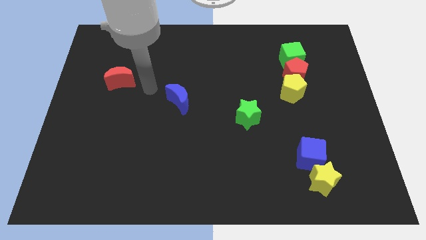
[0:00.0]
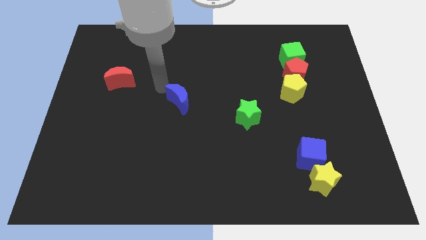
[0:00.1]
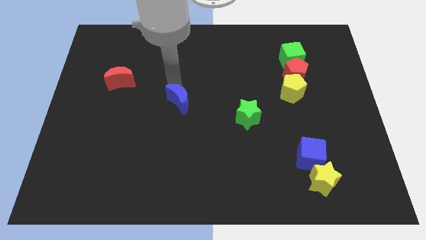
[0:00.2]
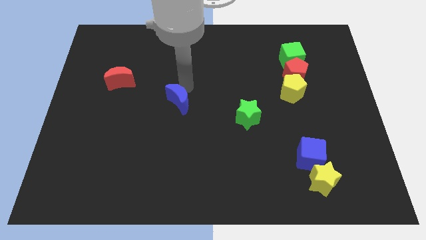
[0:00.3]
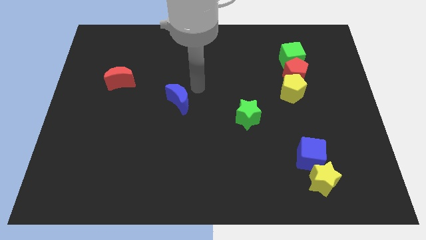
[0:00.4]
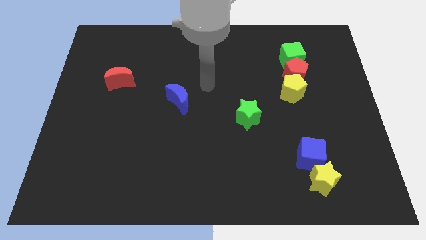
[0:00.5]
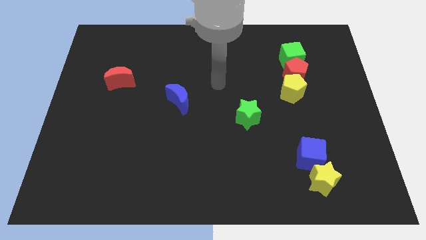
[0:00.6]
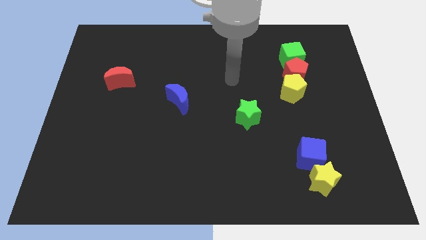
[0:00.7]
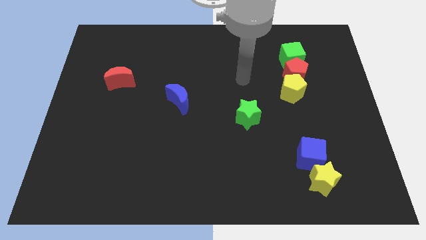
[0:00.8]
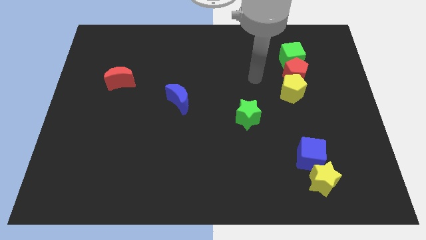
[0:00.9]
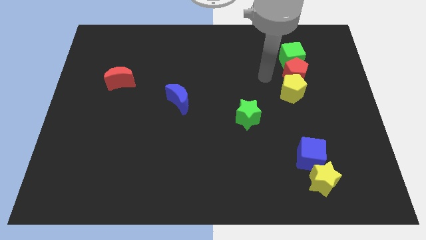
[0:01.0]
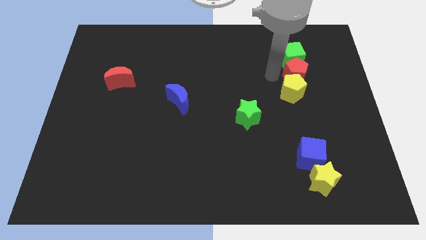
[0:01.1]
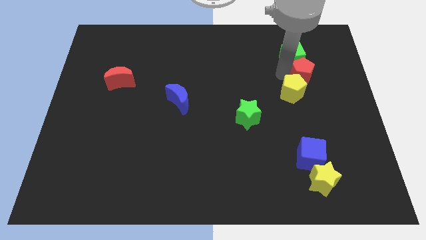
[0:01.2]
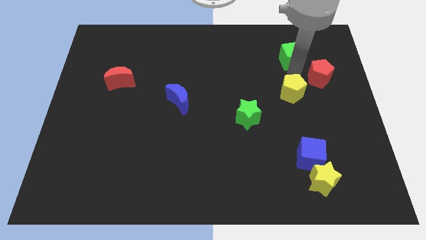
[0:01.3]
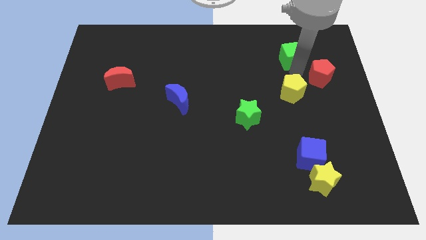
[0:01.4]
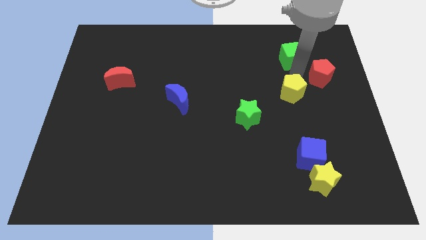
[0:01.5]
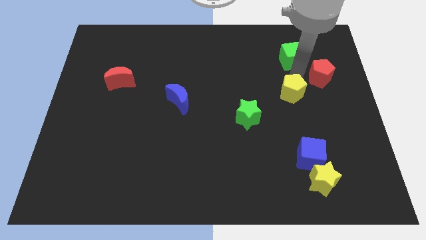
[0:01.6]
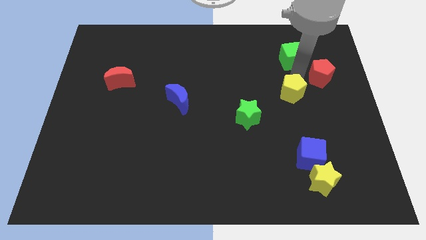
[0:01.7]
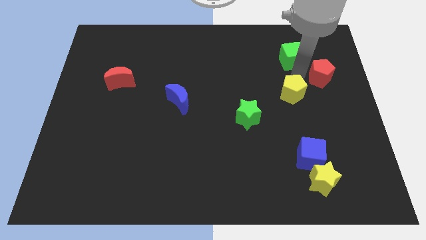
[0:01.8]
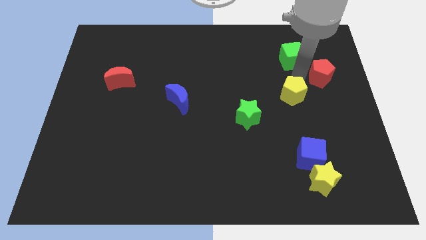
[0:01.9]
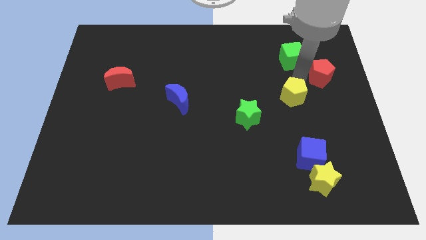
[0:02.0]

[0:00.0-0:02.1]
separate the yellow pentagon from the red pentagon

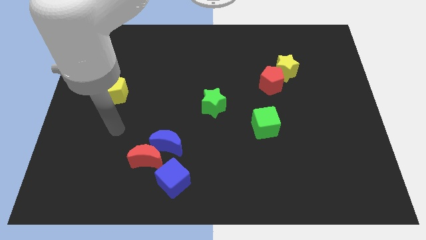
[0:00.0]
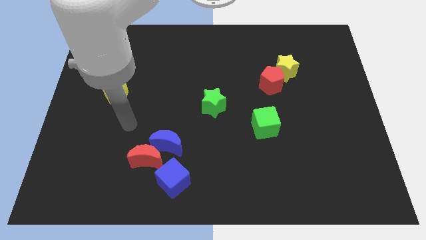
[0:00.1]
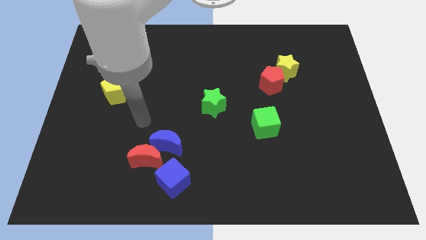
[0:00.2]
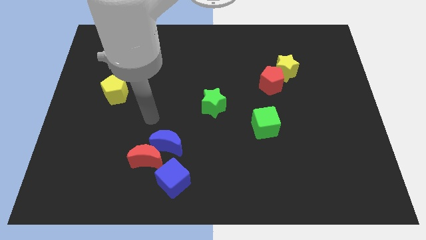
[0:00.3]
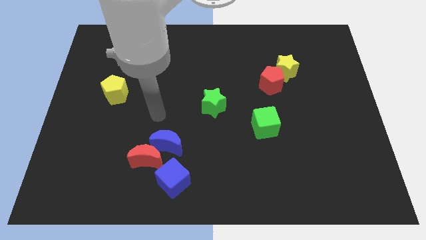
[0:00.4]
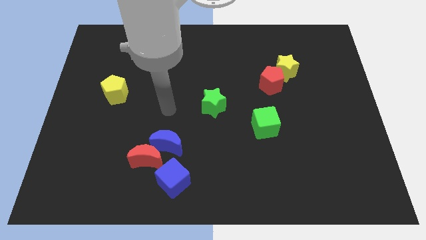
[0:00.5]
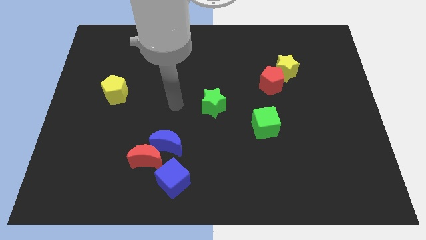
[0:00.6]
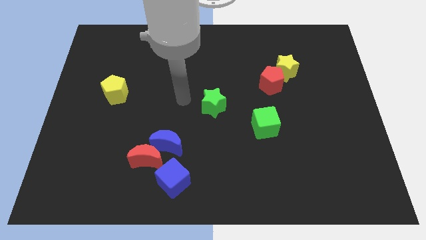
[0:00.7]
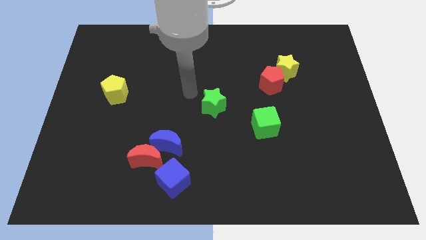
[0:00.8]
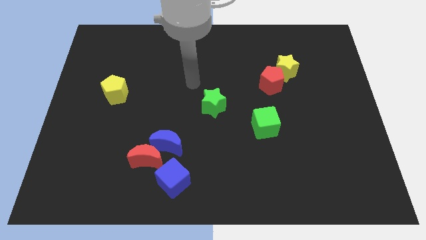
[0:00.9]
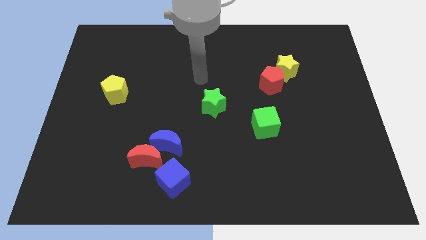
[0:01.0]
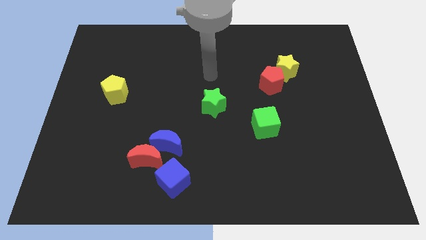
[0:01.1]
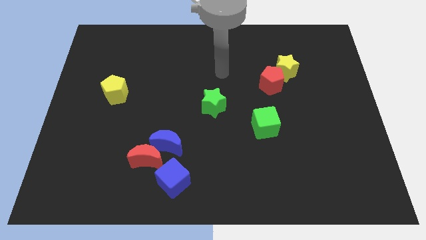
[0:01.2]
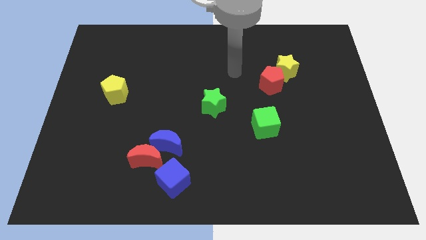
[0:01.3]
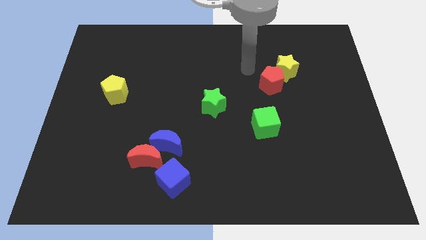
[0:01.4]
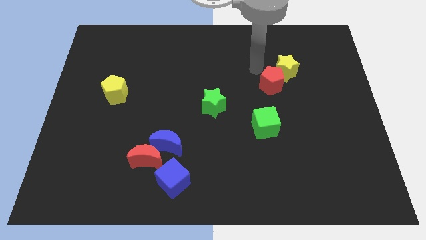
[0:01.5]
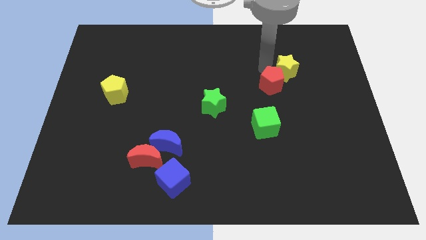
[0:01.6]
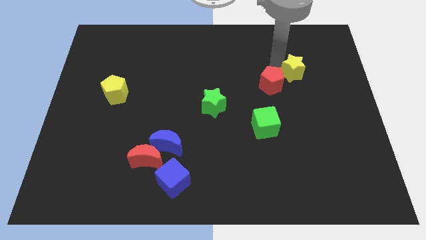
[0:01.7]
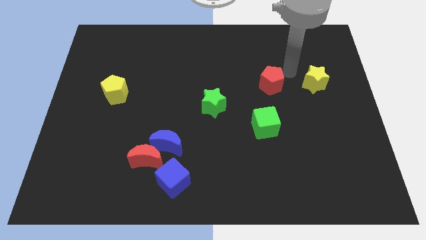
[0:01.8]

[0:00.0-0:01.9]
separate the red pentagon from the yellow star

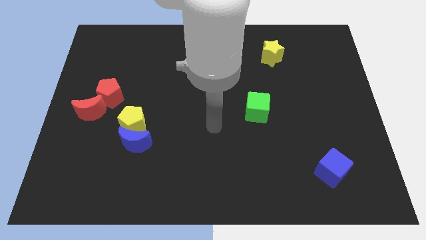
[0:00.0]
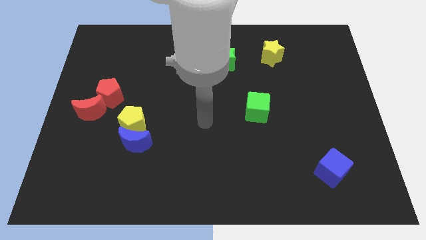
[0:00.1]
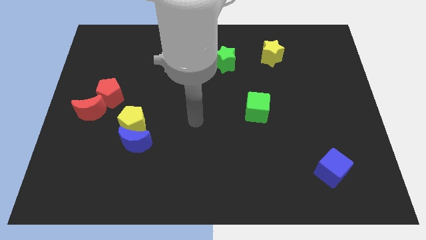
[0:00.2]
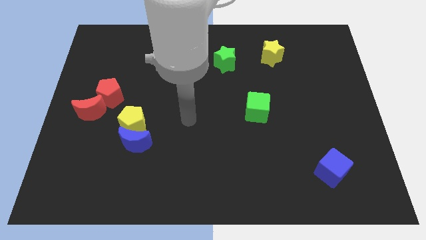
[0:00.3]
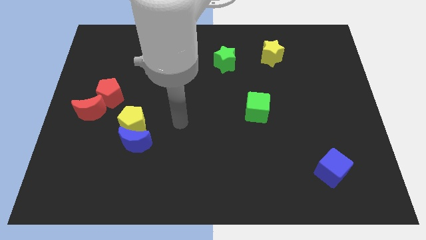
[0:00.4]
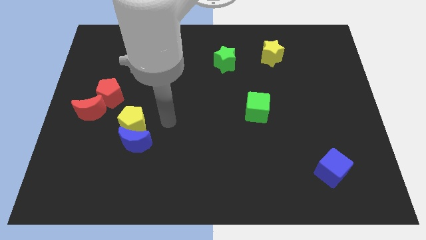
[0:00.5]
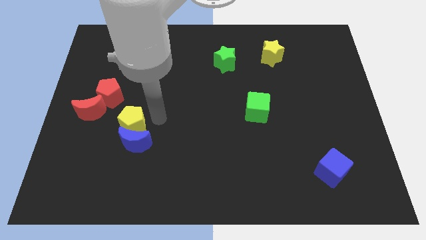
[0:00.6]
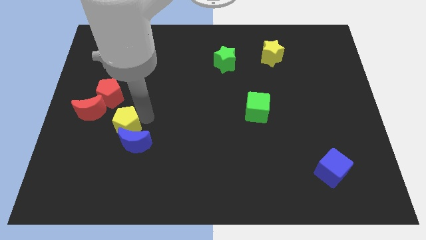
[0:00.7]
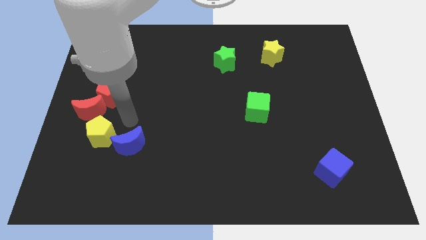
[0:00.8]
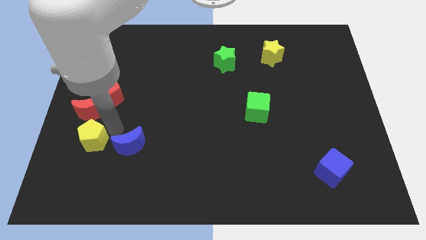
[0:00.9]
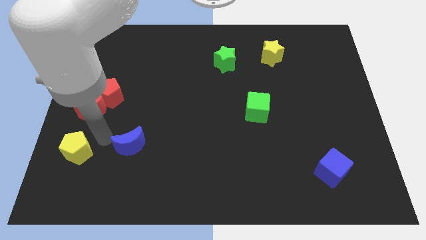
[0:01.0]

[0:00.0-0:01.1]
move the blue moon away from the yellow pentagon

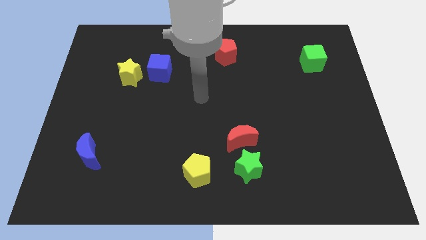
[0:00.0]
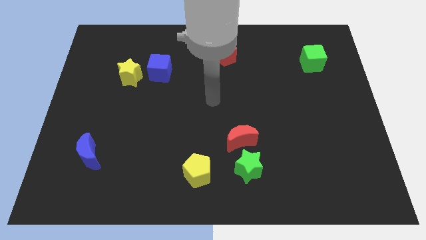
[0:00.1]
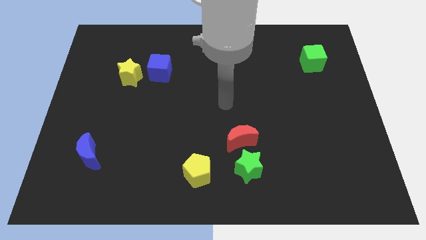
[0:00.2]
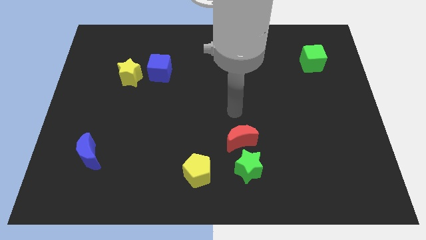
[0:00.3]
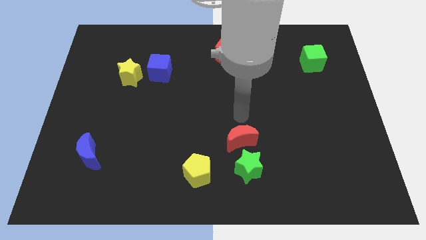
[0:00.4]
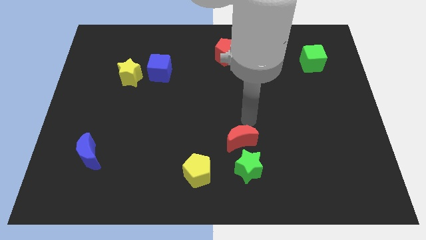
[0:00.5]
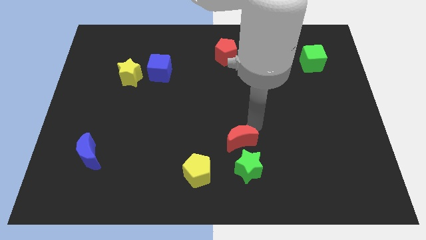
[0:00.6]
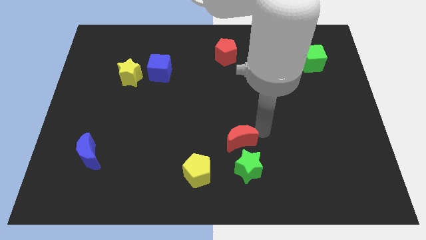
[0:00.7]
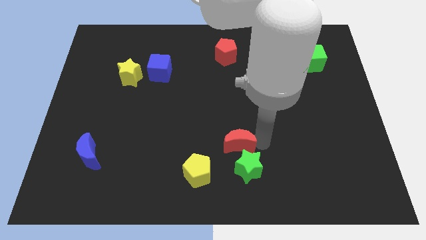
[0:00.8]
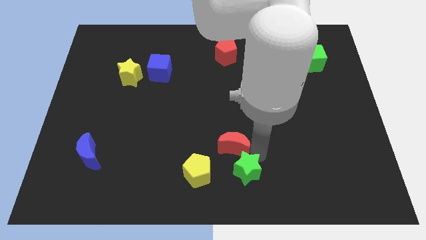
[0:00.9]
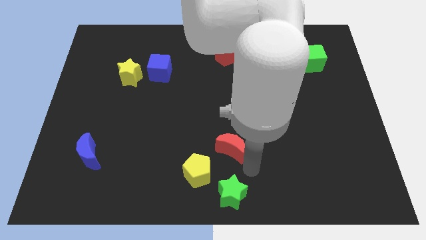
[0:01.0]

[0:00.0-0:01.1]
pull the red moon apart from the green star

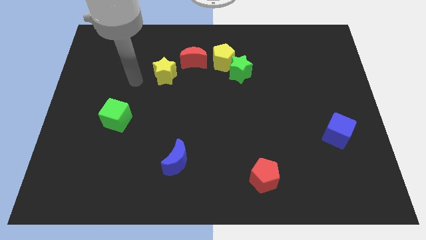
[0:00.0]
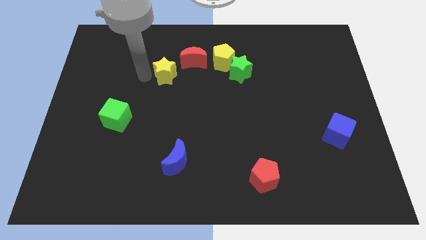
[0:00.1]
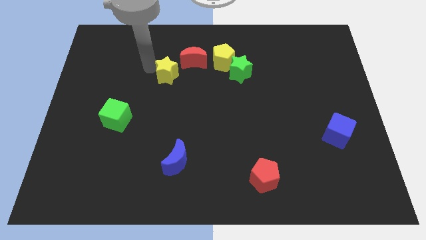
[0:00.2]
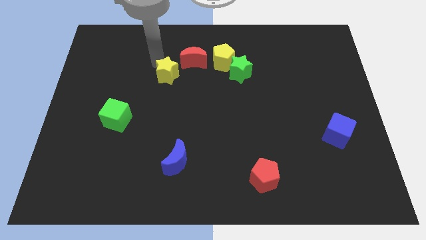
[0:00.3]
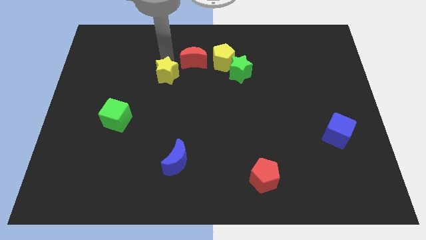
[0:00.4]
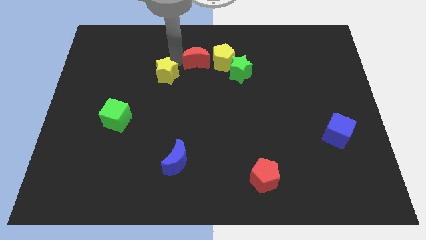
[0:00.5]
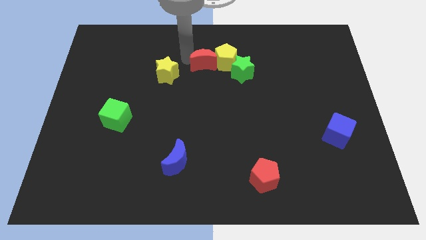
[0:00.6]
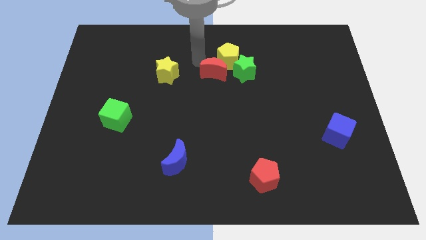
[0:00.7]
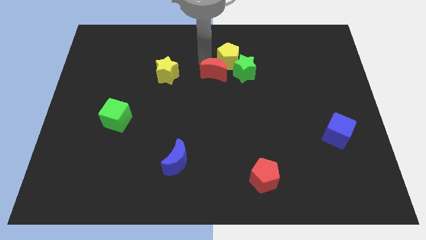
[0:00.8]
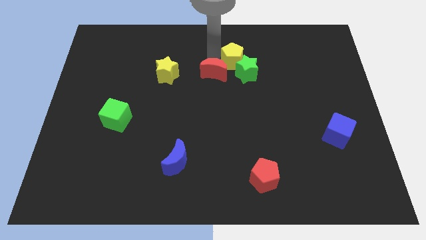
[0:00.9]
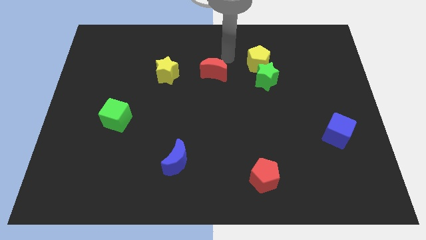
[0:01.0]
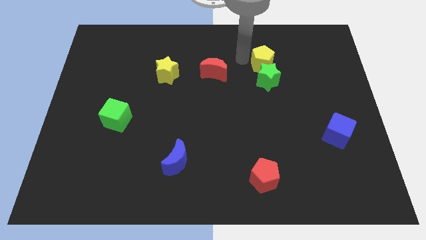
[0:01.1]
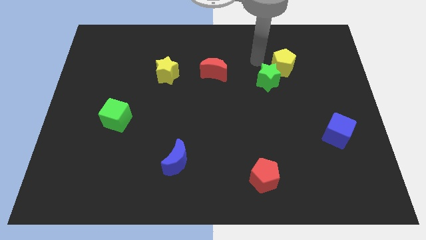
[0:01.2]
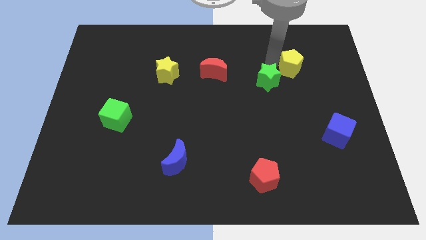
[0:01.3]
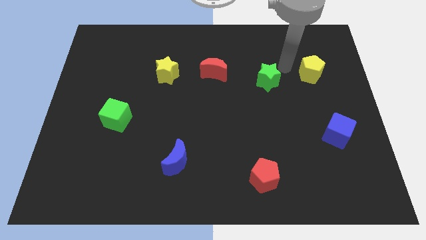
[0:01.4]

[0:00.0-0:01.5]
move the green star away from the yellow pentagon

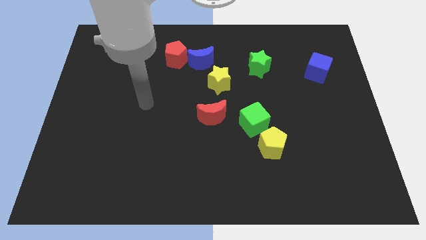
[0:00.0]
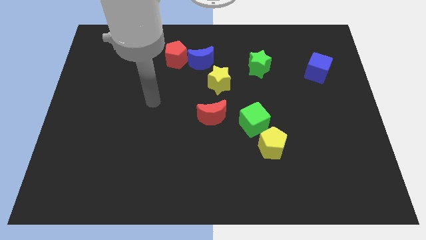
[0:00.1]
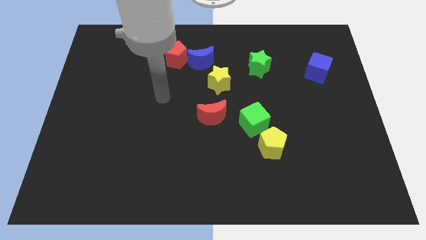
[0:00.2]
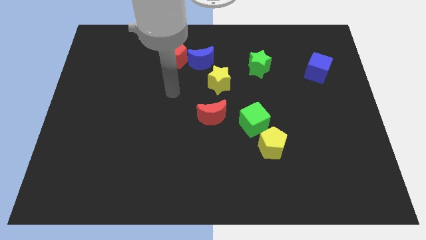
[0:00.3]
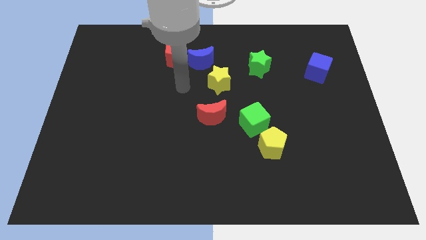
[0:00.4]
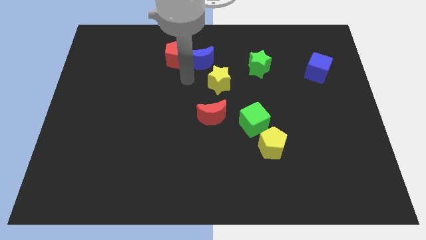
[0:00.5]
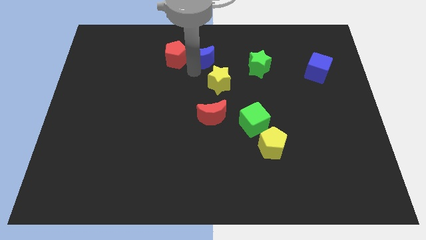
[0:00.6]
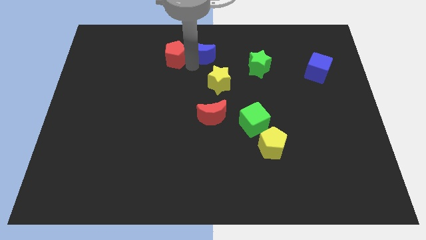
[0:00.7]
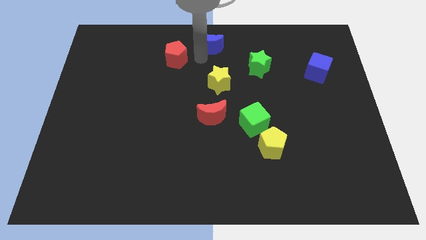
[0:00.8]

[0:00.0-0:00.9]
move the red pentagon away from the blue moon

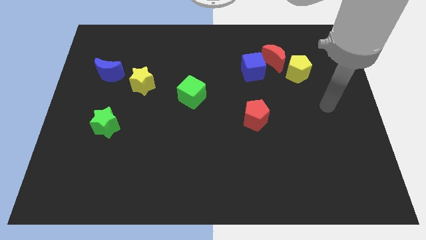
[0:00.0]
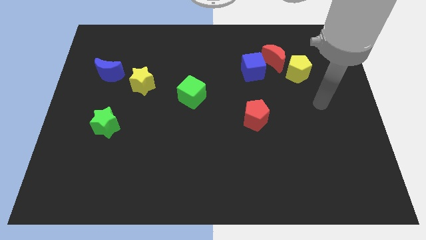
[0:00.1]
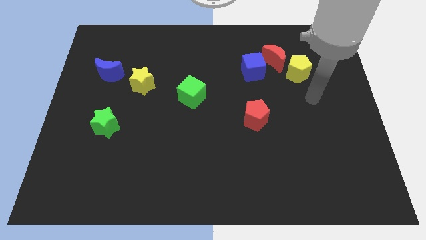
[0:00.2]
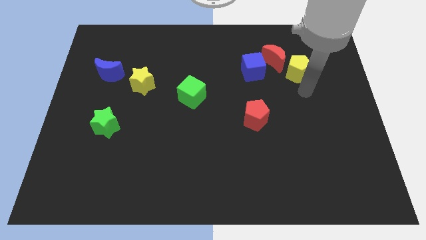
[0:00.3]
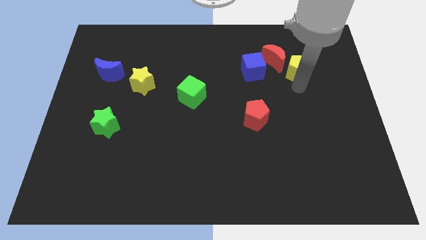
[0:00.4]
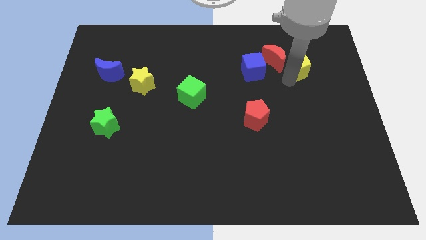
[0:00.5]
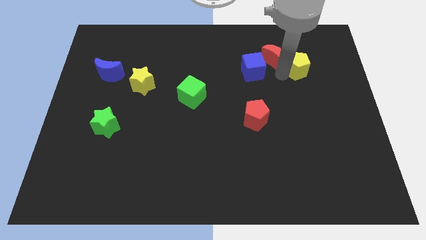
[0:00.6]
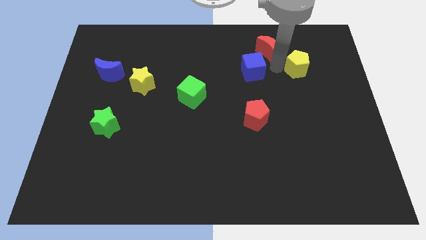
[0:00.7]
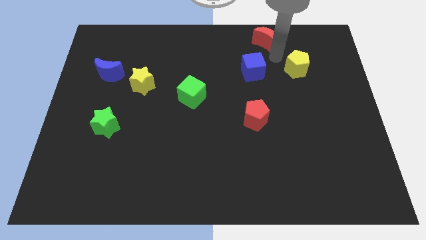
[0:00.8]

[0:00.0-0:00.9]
separate the yellow pentagon from the red moon

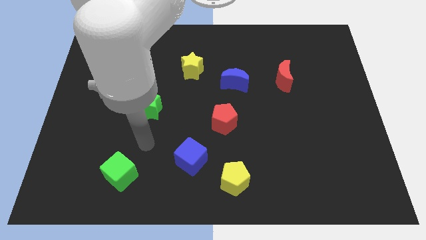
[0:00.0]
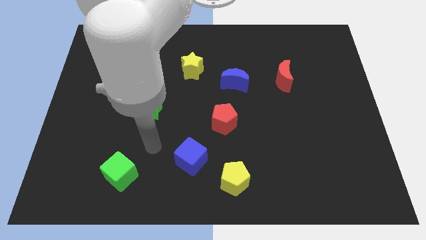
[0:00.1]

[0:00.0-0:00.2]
move the blue cube away from the yellow pentagon
